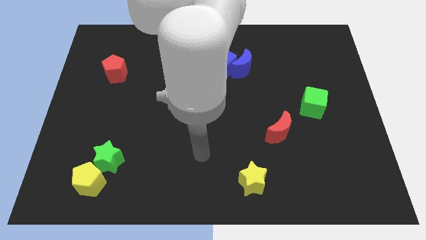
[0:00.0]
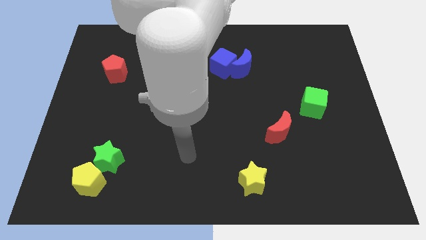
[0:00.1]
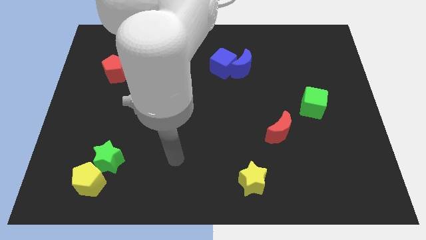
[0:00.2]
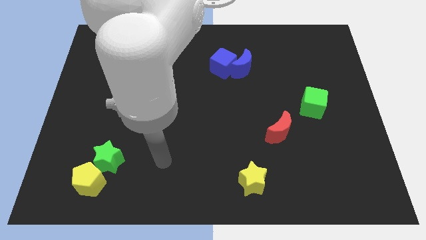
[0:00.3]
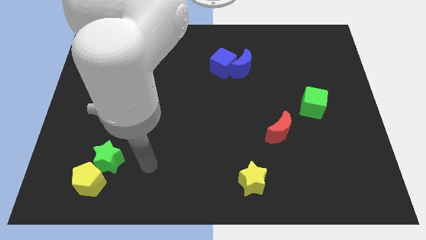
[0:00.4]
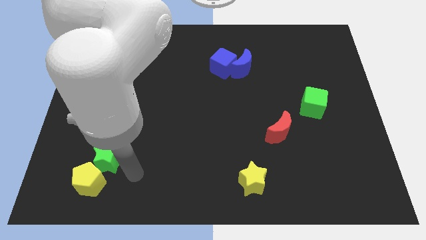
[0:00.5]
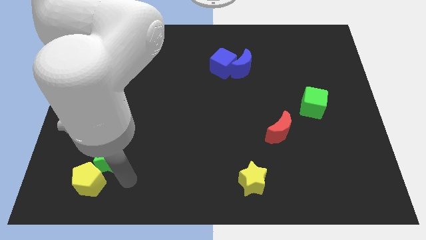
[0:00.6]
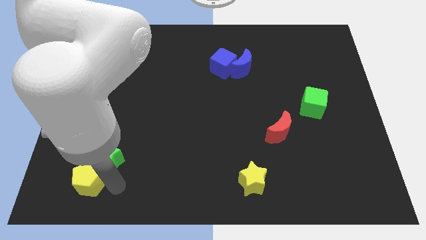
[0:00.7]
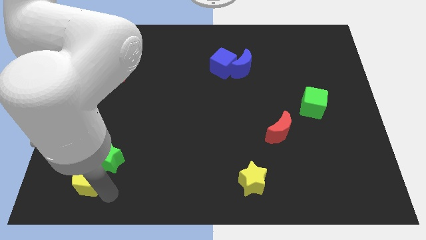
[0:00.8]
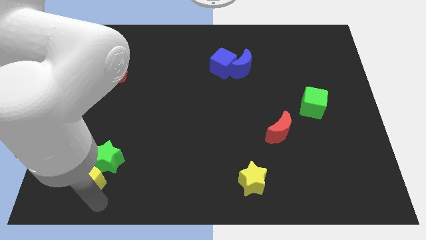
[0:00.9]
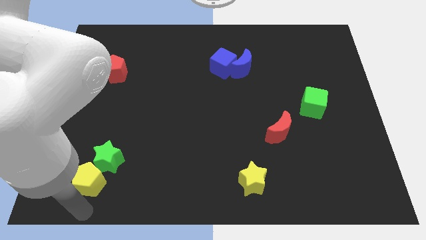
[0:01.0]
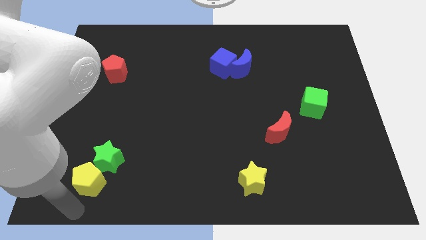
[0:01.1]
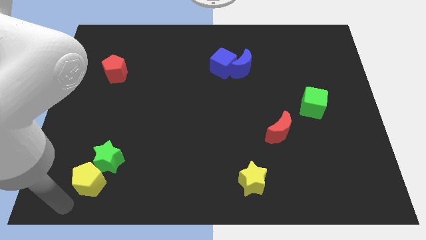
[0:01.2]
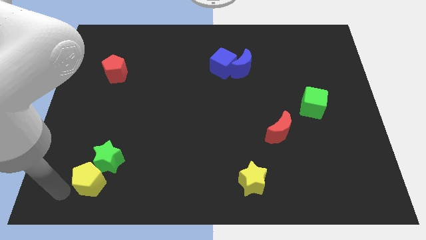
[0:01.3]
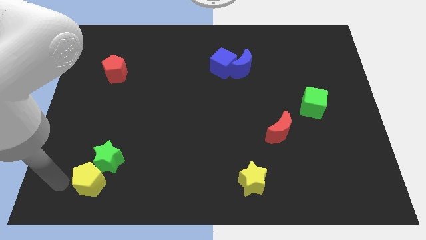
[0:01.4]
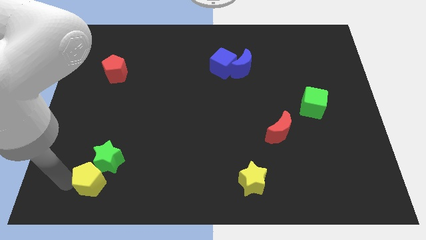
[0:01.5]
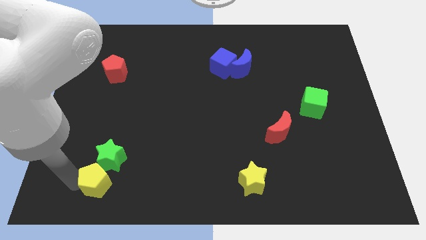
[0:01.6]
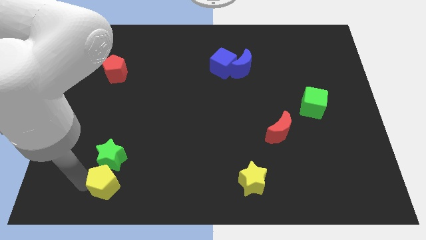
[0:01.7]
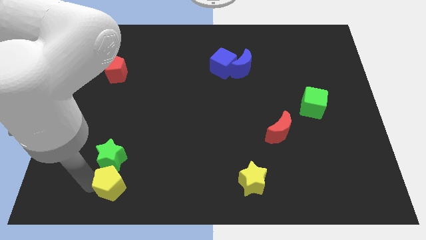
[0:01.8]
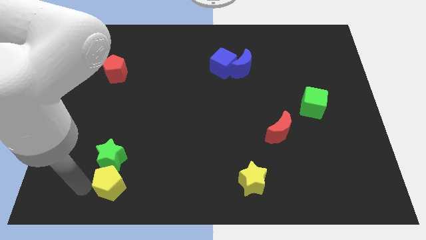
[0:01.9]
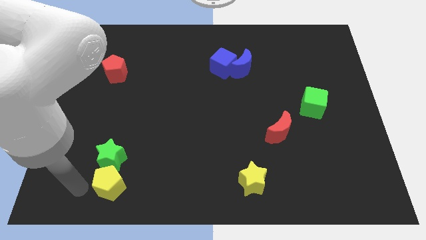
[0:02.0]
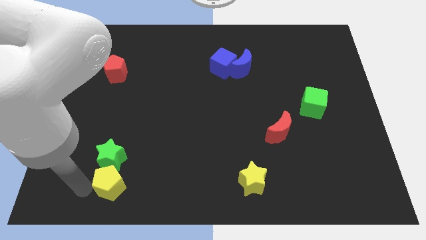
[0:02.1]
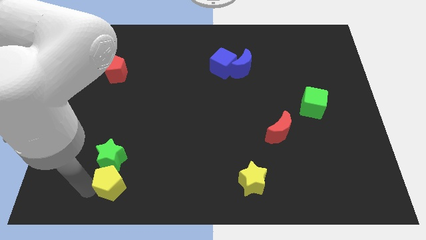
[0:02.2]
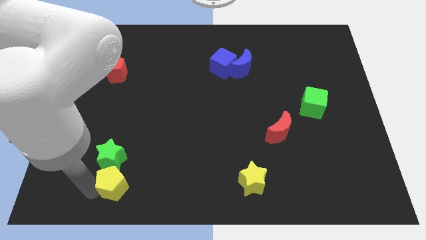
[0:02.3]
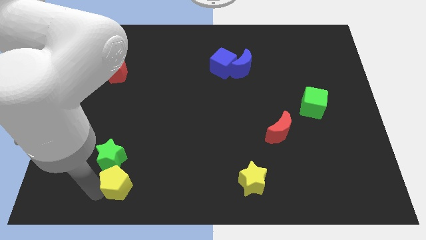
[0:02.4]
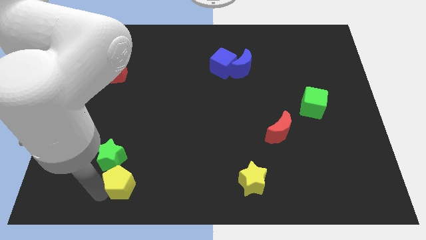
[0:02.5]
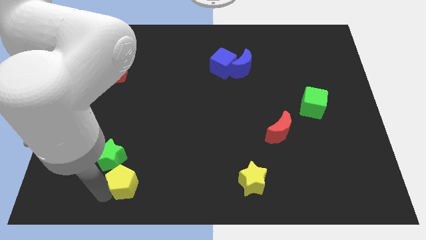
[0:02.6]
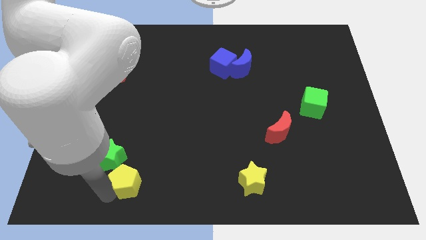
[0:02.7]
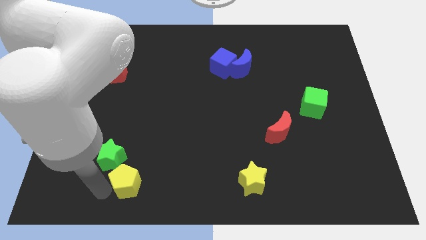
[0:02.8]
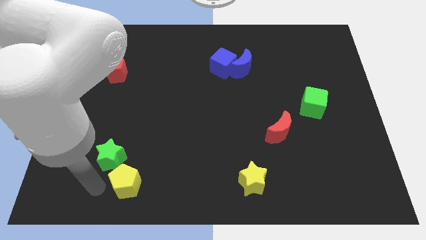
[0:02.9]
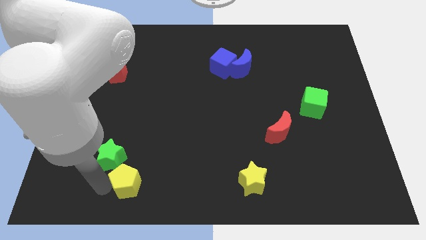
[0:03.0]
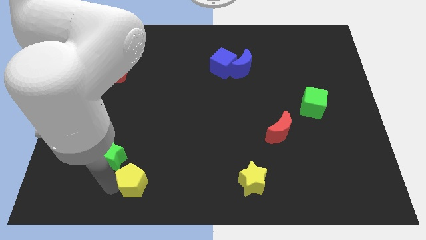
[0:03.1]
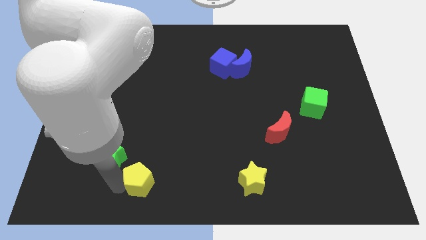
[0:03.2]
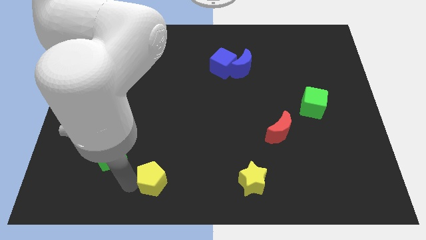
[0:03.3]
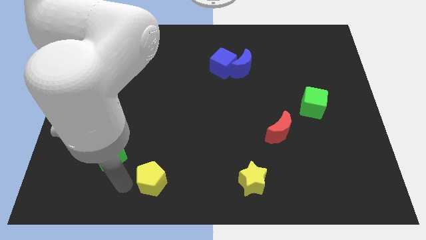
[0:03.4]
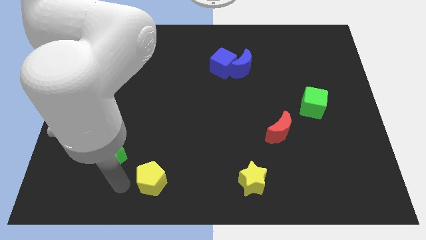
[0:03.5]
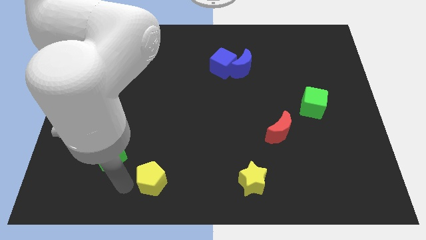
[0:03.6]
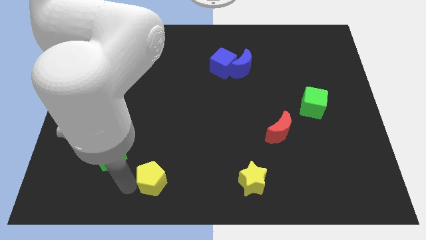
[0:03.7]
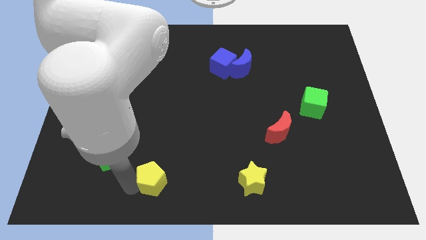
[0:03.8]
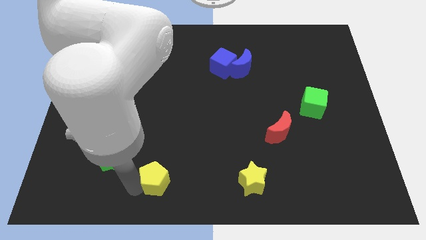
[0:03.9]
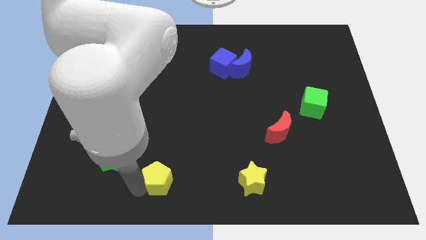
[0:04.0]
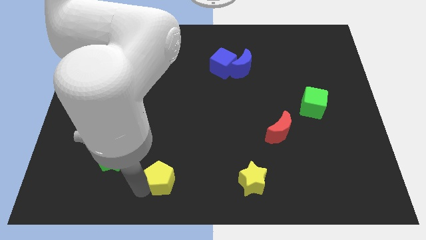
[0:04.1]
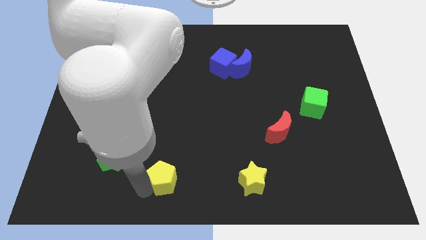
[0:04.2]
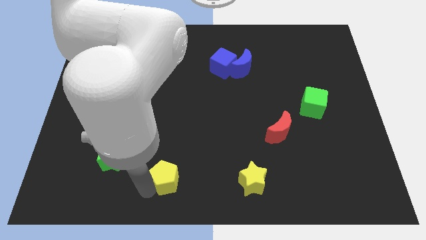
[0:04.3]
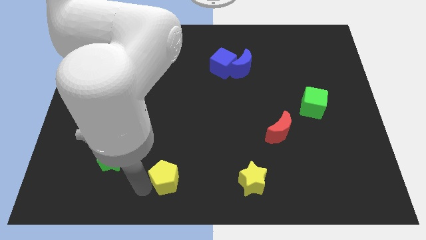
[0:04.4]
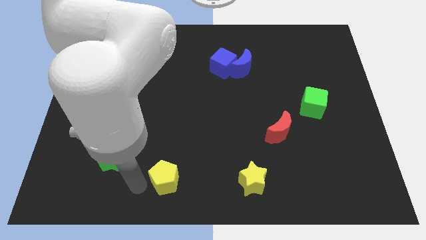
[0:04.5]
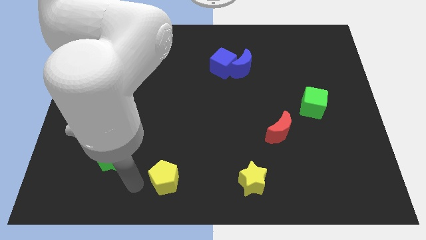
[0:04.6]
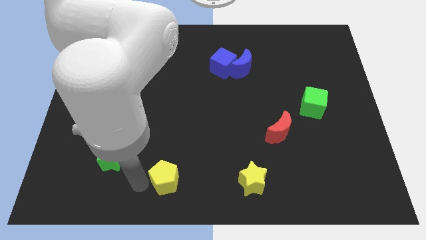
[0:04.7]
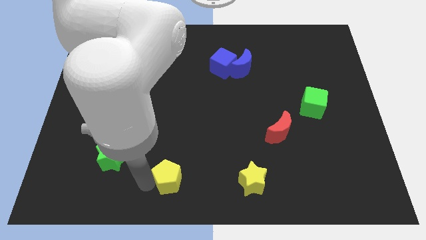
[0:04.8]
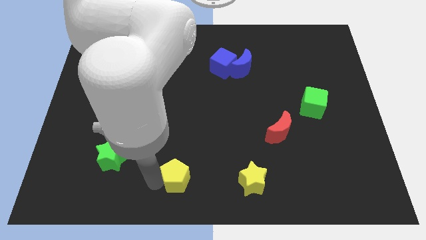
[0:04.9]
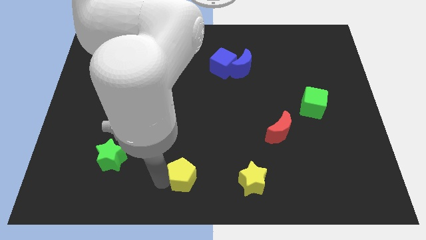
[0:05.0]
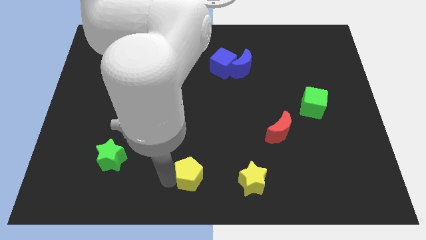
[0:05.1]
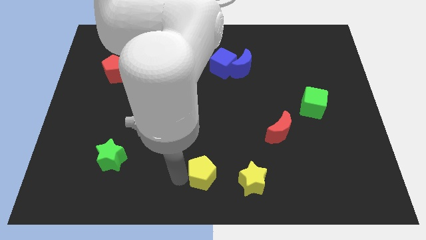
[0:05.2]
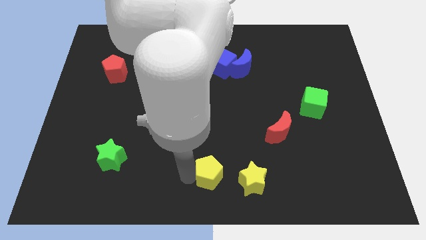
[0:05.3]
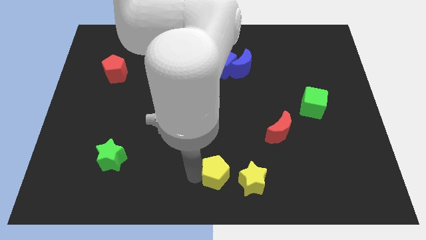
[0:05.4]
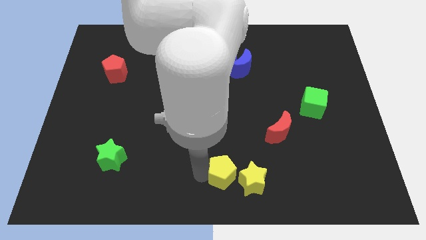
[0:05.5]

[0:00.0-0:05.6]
push the yellow pentagon close to the yellow star

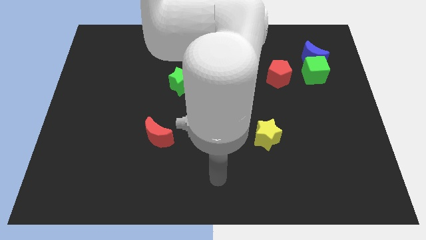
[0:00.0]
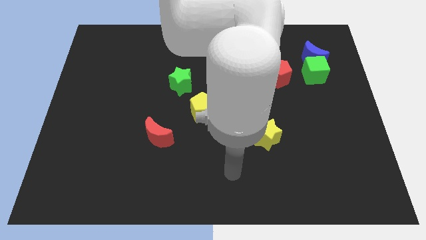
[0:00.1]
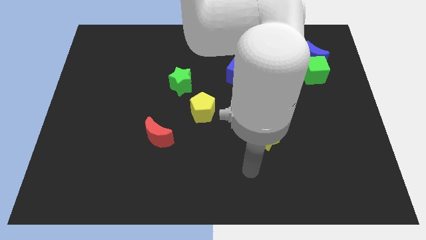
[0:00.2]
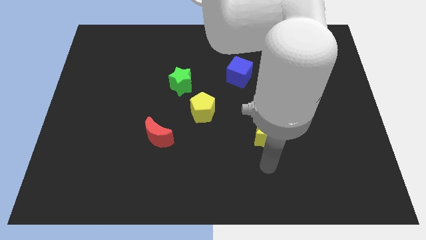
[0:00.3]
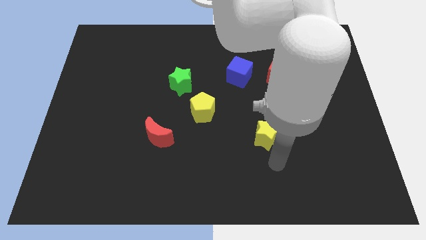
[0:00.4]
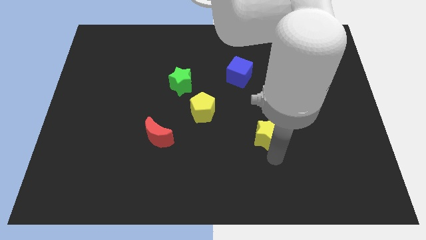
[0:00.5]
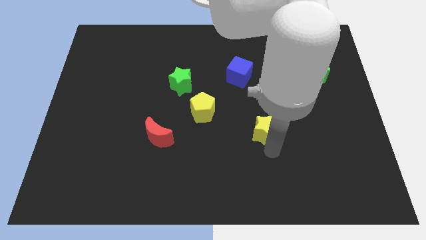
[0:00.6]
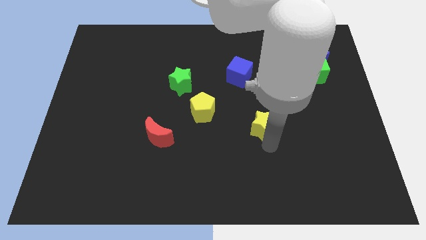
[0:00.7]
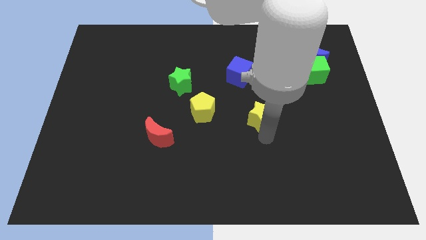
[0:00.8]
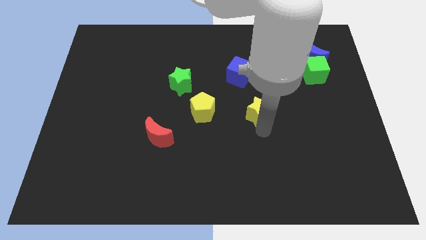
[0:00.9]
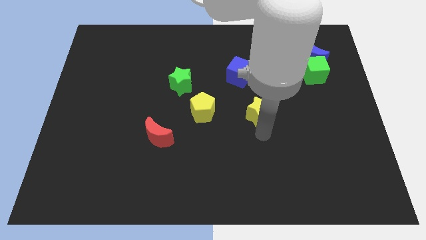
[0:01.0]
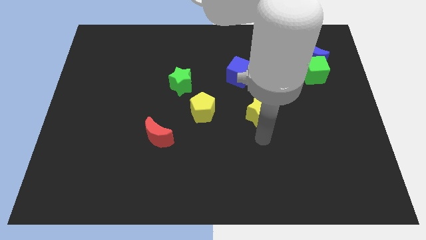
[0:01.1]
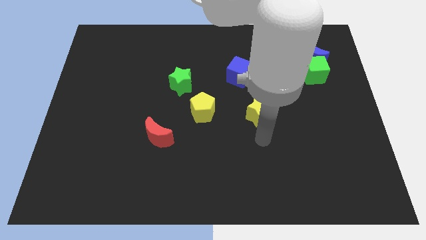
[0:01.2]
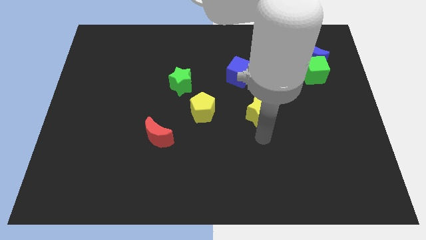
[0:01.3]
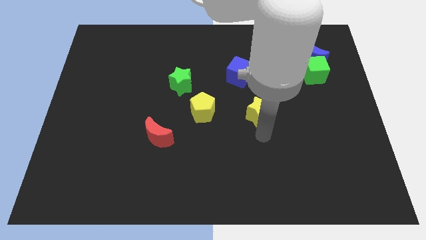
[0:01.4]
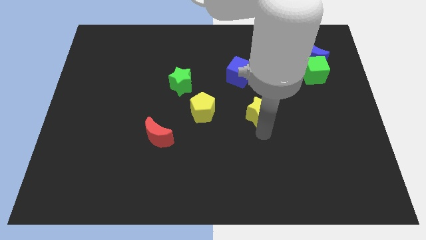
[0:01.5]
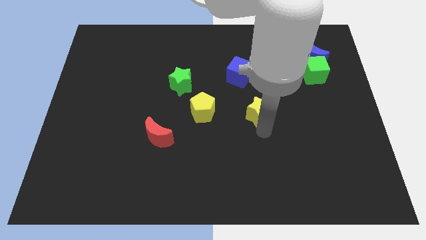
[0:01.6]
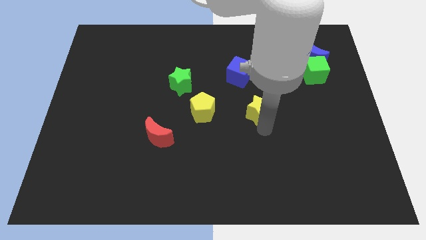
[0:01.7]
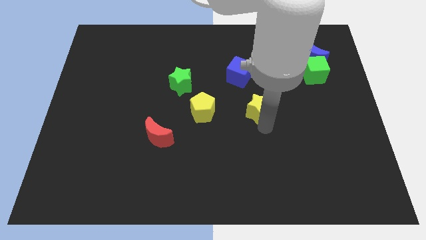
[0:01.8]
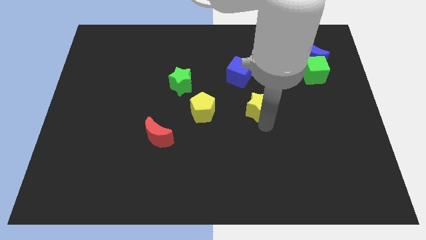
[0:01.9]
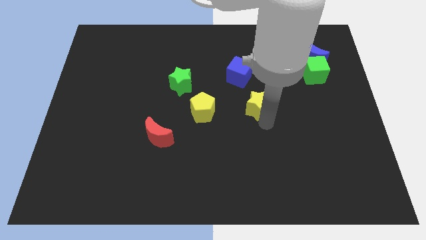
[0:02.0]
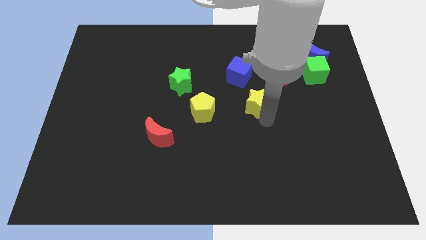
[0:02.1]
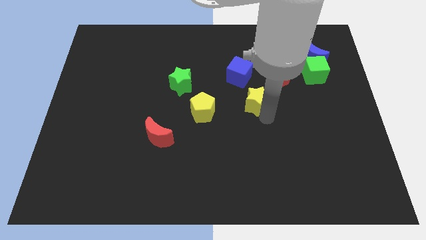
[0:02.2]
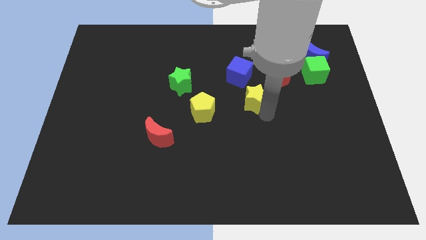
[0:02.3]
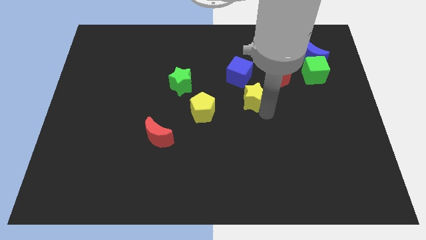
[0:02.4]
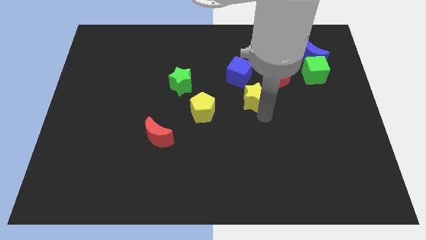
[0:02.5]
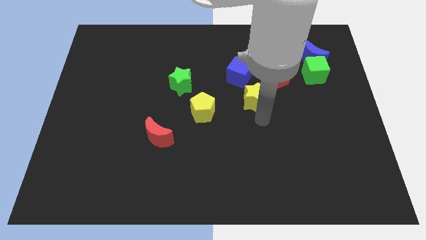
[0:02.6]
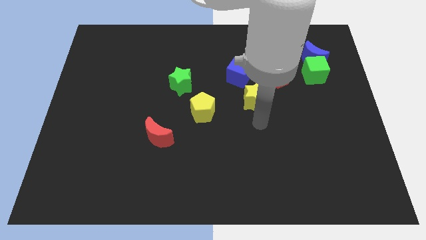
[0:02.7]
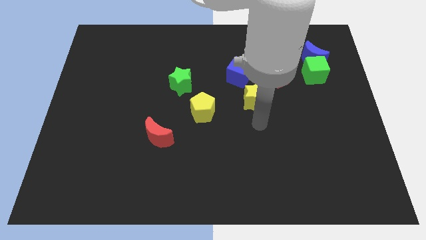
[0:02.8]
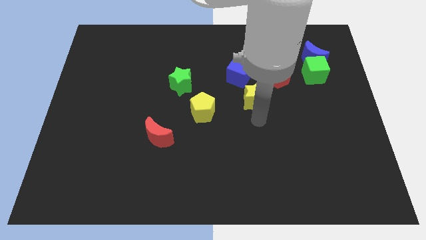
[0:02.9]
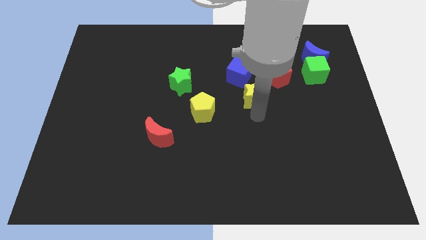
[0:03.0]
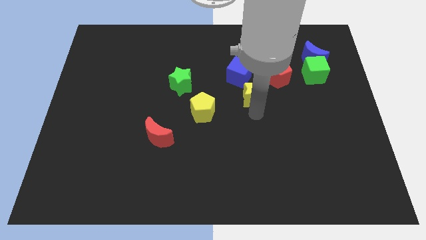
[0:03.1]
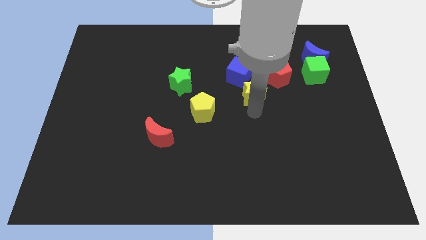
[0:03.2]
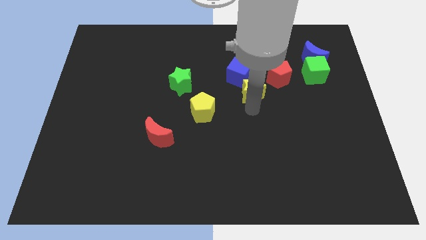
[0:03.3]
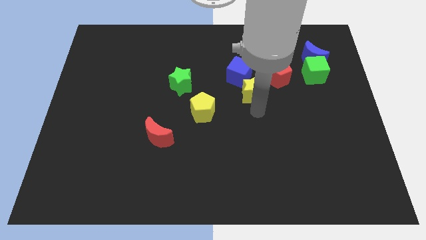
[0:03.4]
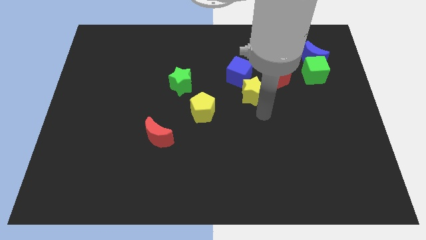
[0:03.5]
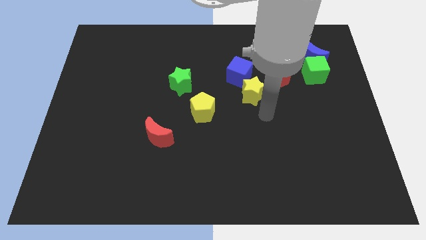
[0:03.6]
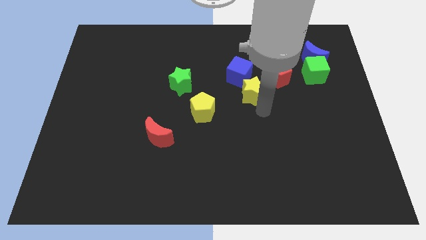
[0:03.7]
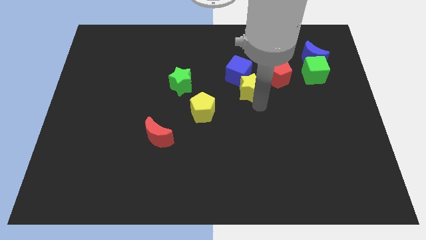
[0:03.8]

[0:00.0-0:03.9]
slide the yellow star next to the blue cube
